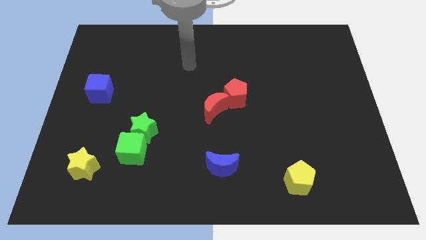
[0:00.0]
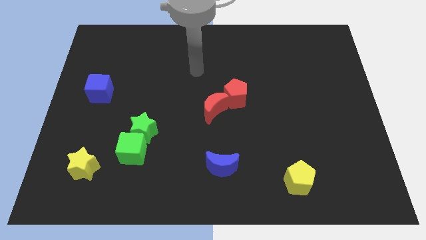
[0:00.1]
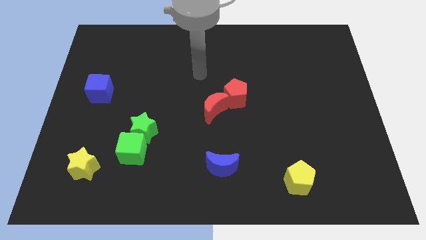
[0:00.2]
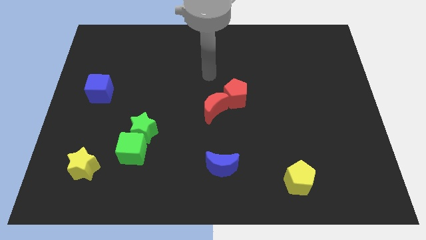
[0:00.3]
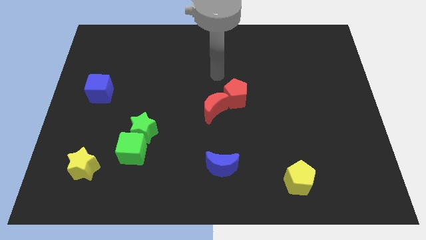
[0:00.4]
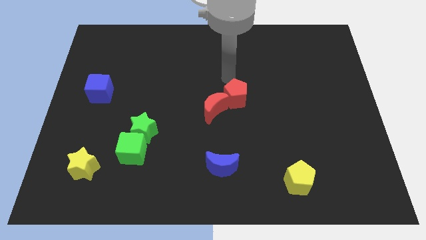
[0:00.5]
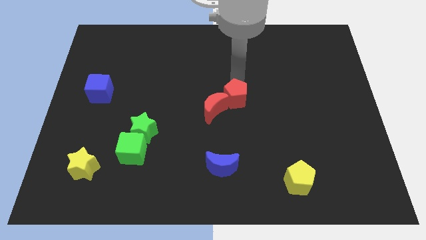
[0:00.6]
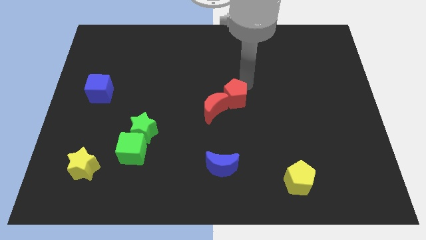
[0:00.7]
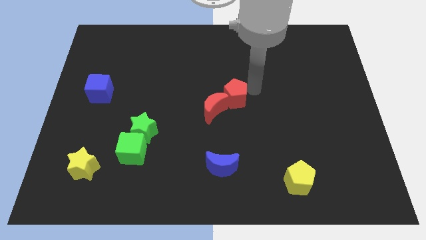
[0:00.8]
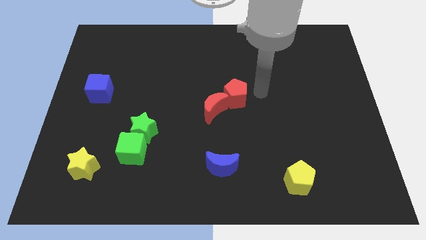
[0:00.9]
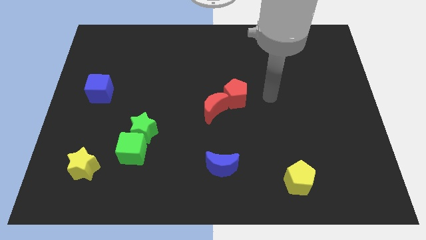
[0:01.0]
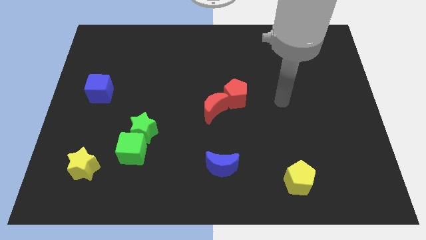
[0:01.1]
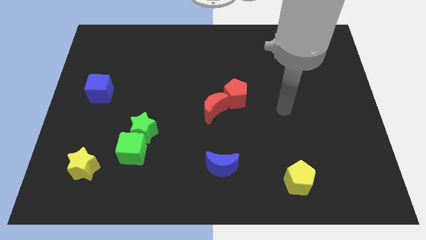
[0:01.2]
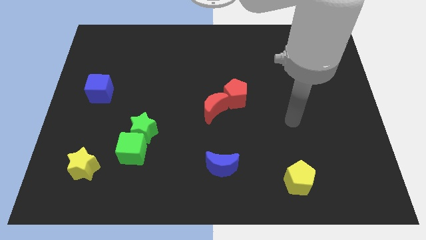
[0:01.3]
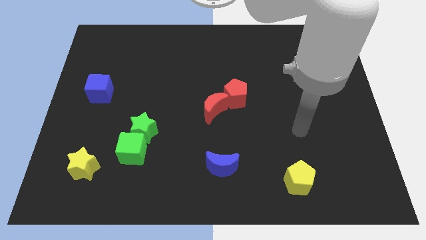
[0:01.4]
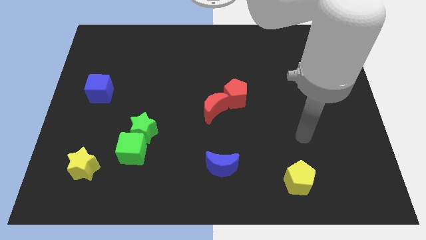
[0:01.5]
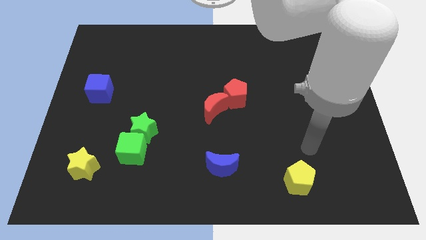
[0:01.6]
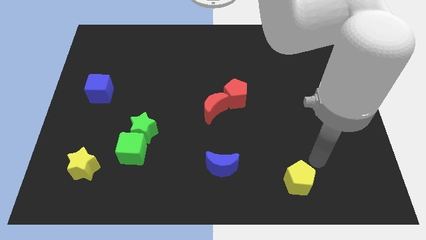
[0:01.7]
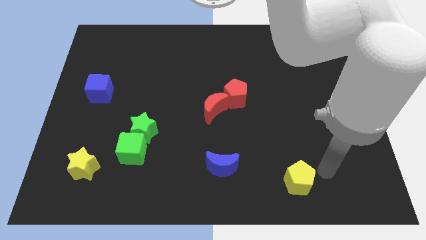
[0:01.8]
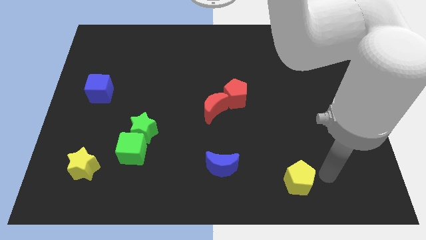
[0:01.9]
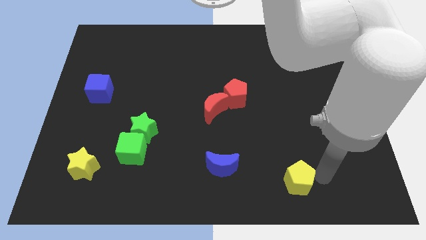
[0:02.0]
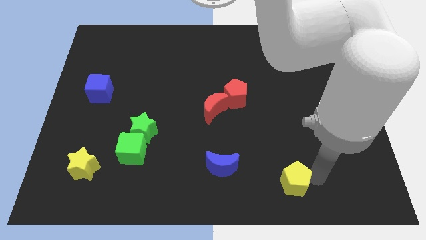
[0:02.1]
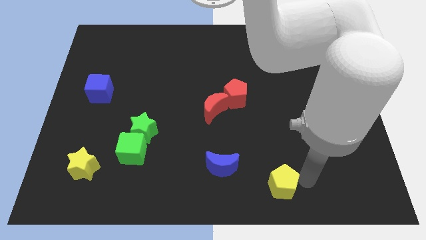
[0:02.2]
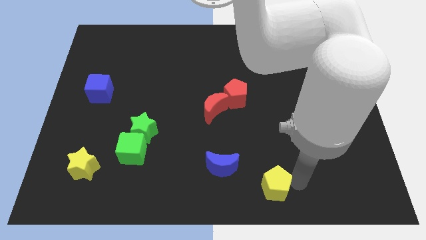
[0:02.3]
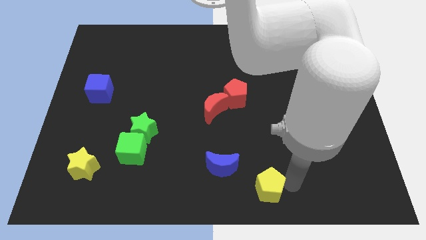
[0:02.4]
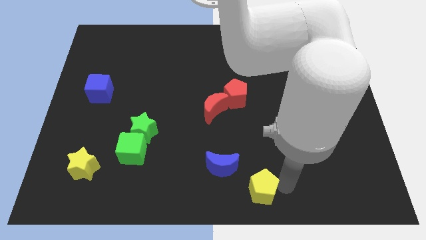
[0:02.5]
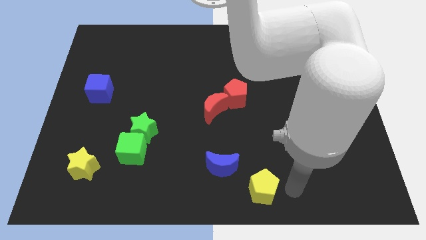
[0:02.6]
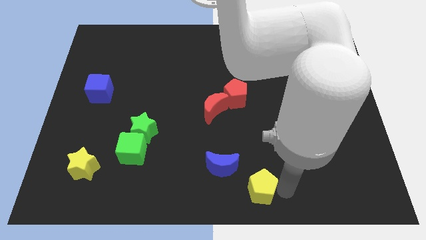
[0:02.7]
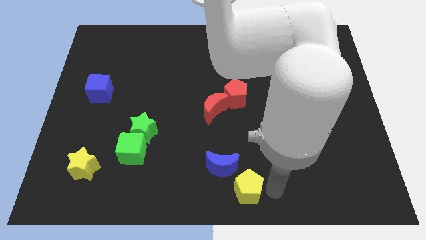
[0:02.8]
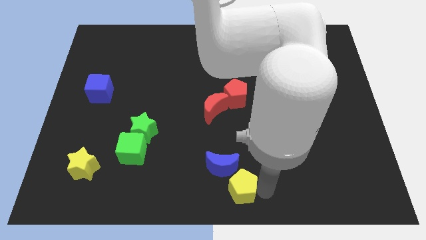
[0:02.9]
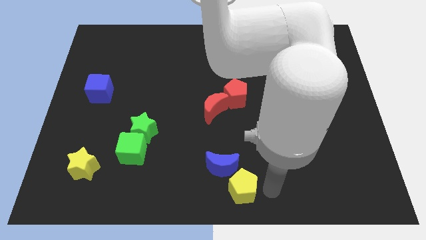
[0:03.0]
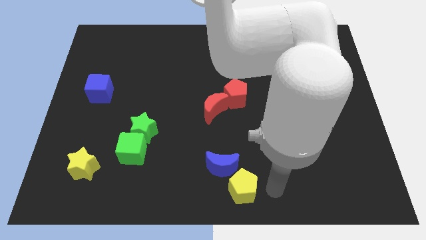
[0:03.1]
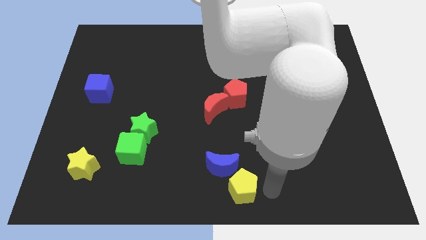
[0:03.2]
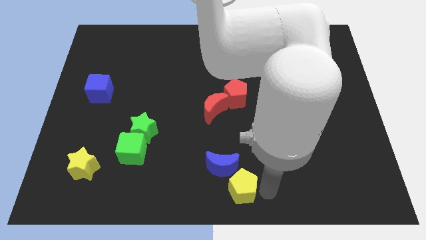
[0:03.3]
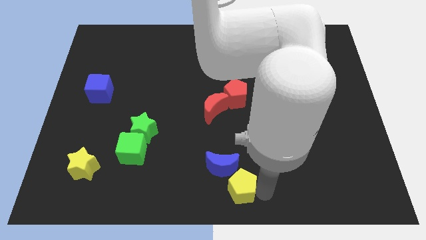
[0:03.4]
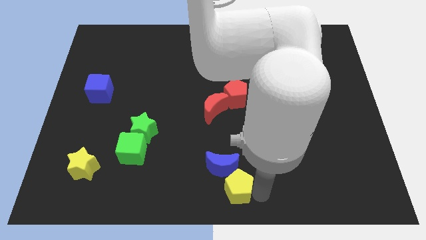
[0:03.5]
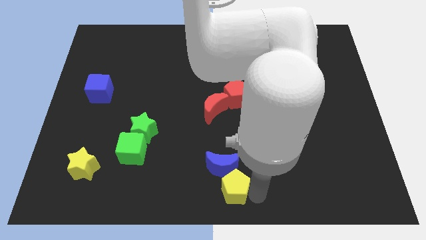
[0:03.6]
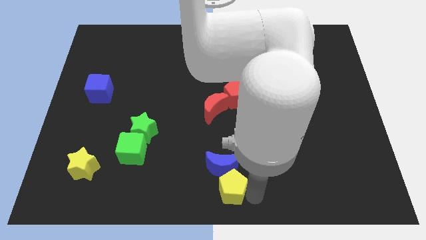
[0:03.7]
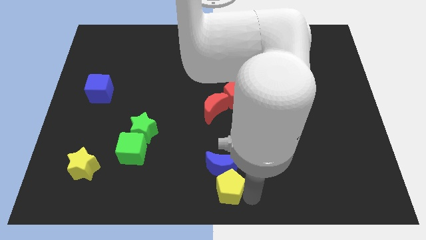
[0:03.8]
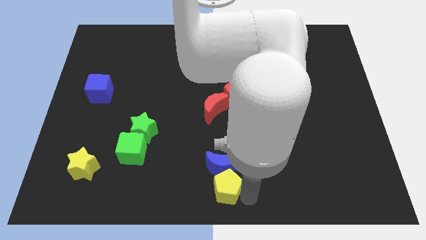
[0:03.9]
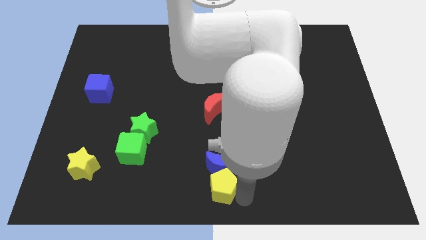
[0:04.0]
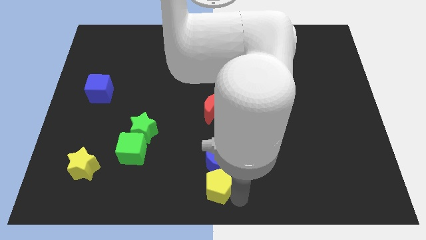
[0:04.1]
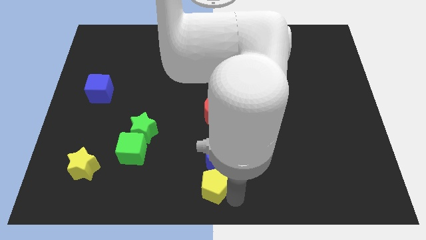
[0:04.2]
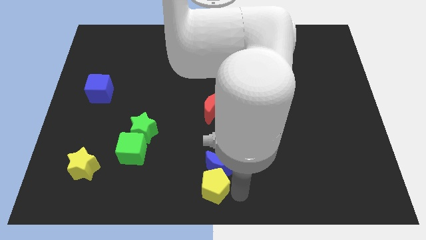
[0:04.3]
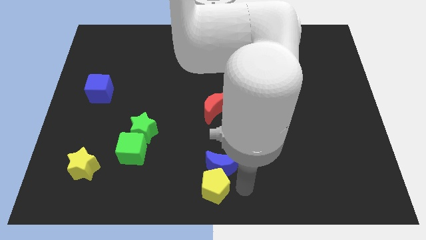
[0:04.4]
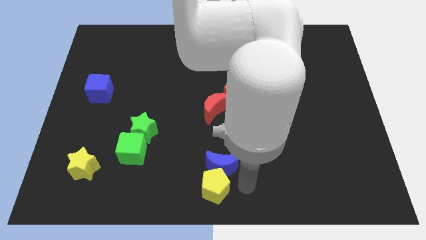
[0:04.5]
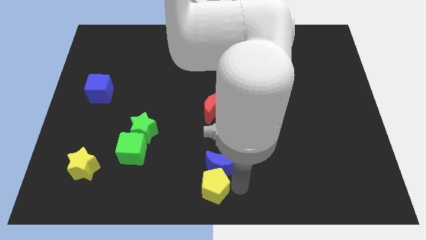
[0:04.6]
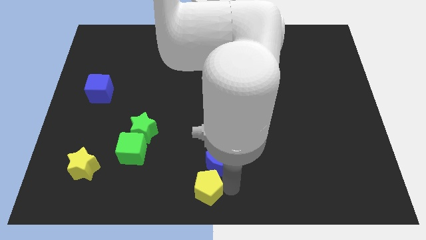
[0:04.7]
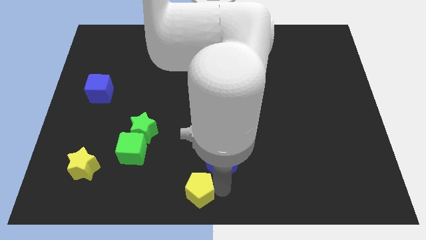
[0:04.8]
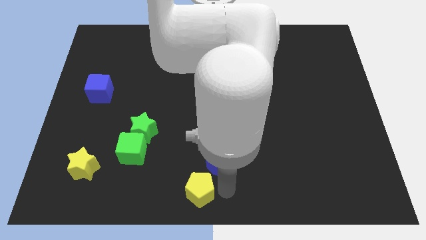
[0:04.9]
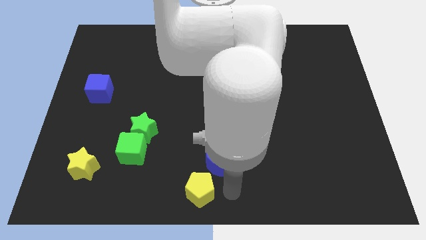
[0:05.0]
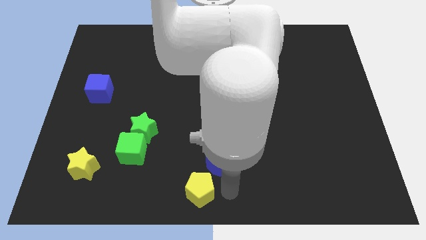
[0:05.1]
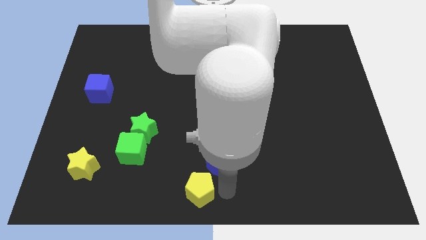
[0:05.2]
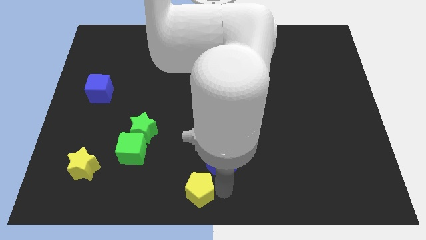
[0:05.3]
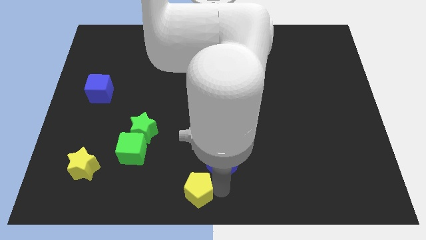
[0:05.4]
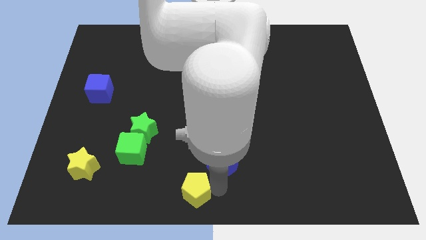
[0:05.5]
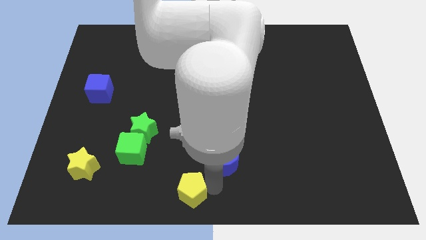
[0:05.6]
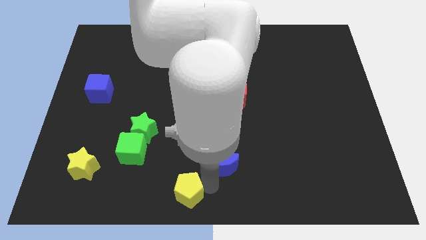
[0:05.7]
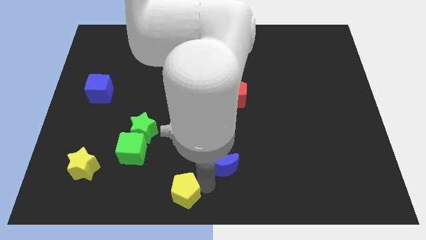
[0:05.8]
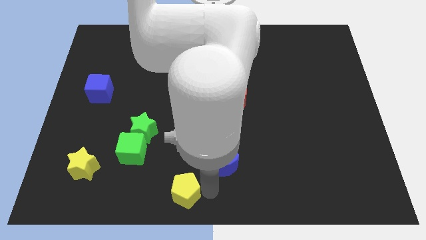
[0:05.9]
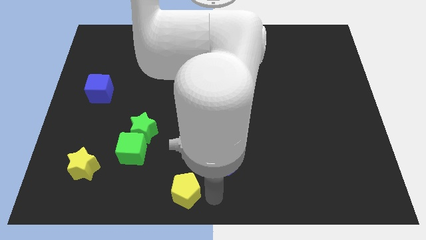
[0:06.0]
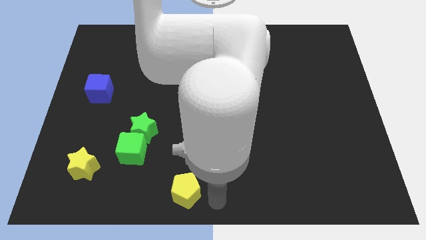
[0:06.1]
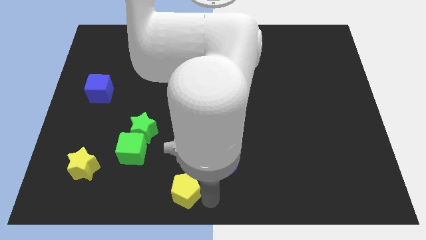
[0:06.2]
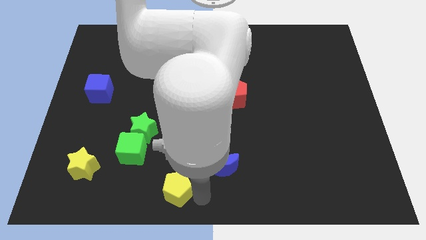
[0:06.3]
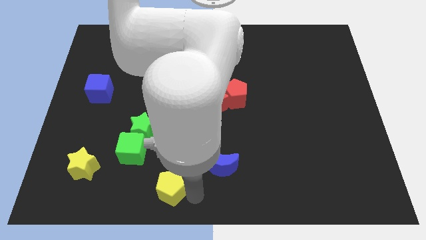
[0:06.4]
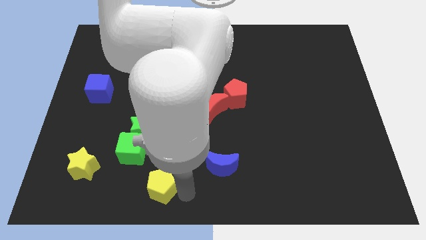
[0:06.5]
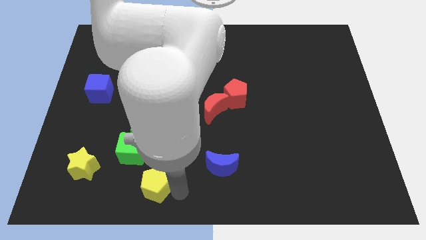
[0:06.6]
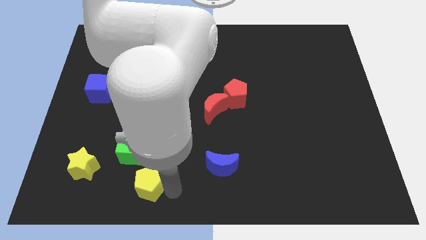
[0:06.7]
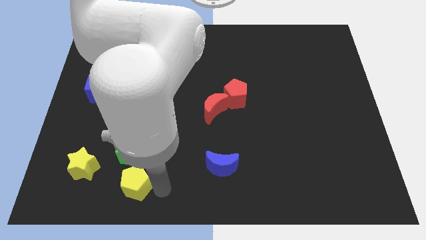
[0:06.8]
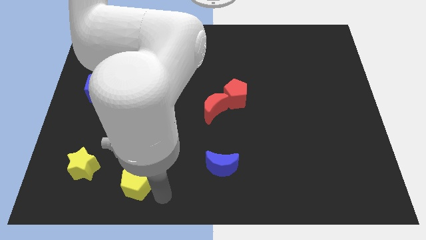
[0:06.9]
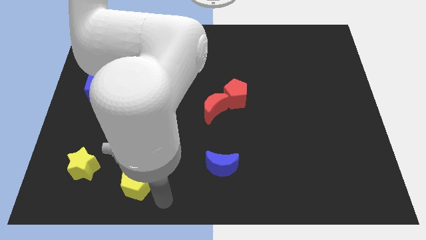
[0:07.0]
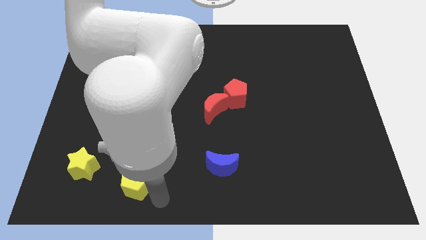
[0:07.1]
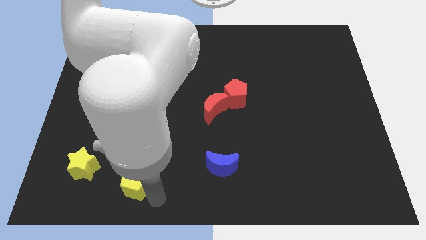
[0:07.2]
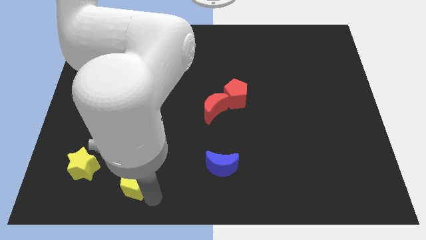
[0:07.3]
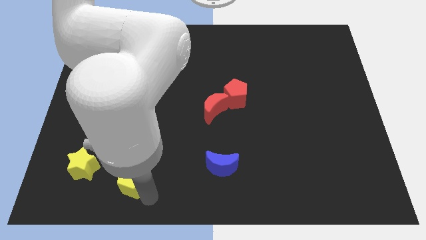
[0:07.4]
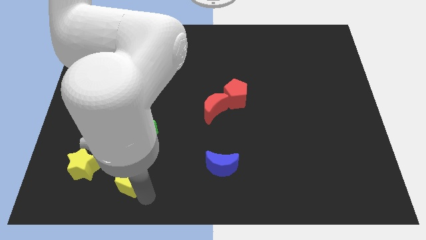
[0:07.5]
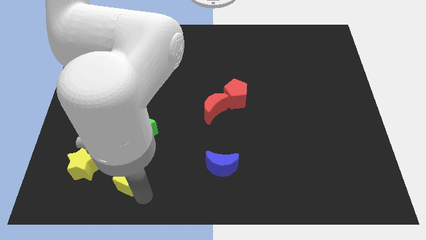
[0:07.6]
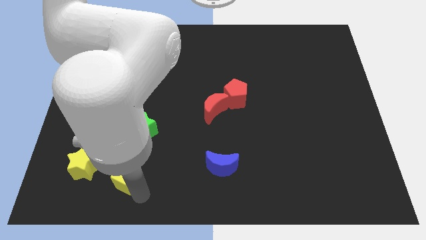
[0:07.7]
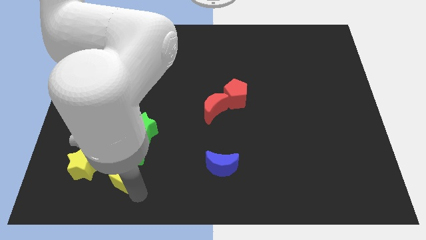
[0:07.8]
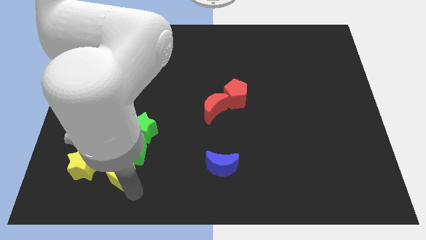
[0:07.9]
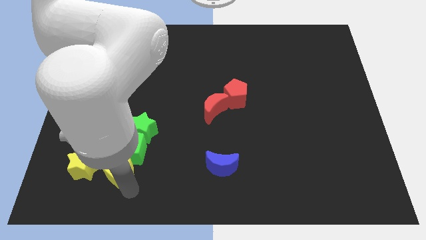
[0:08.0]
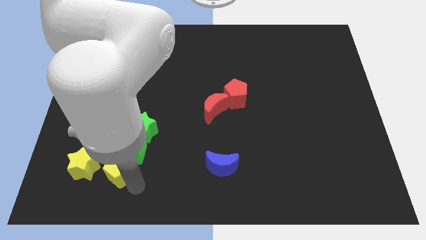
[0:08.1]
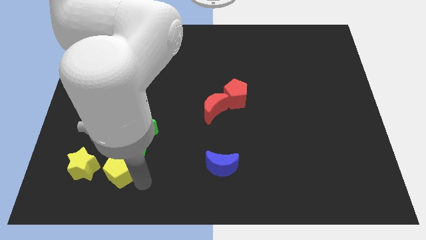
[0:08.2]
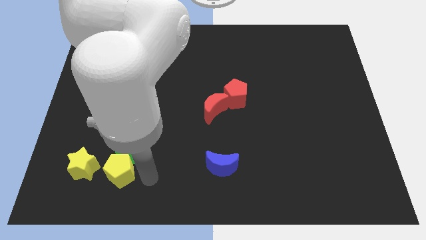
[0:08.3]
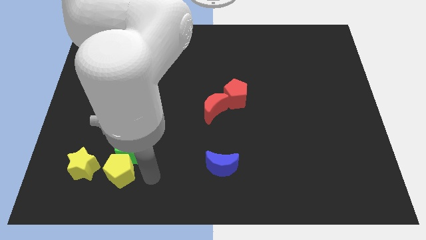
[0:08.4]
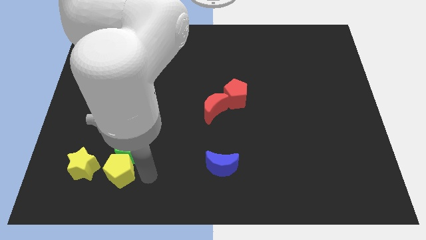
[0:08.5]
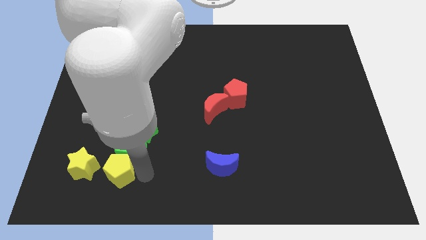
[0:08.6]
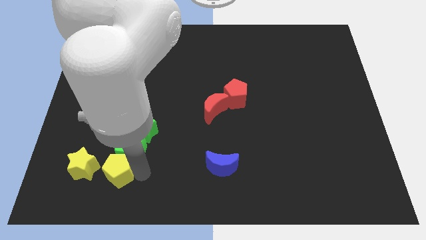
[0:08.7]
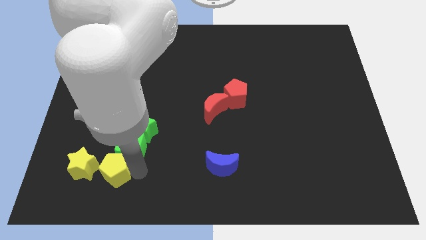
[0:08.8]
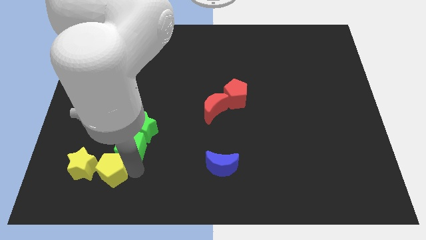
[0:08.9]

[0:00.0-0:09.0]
move the yellow pentagon next to the yellow star
